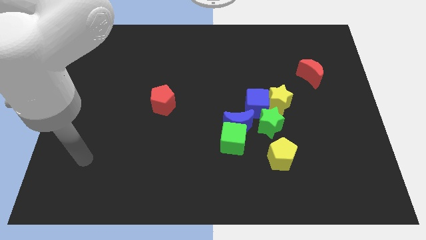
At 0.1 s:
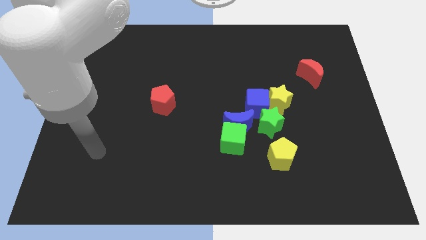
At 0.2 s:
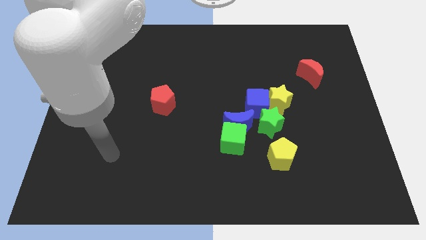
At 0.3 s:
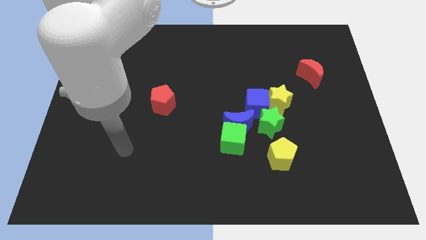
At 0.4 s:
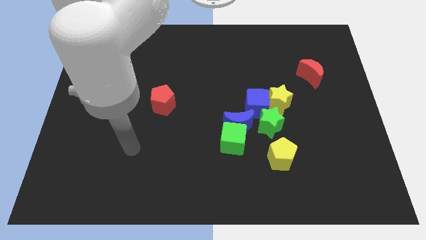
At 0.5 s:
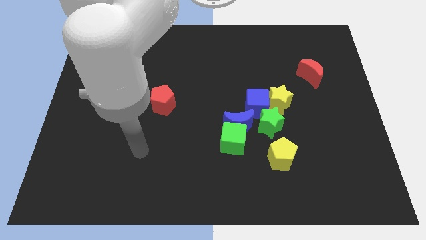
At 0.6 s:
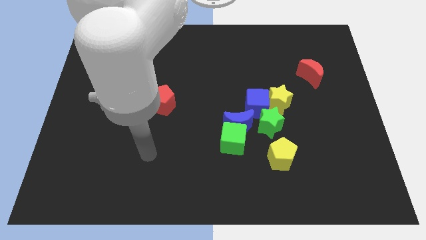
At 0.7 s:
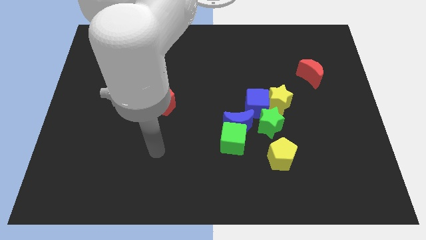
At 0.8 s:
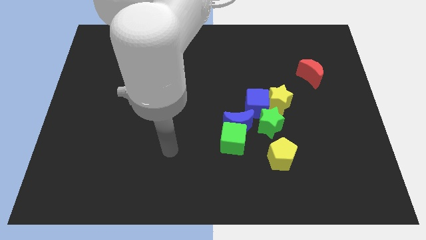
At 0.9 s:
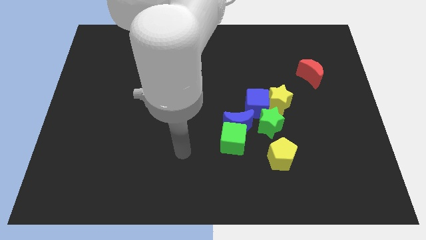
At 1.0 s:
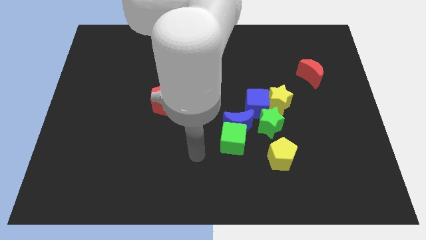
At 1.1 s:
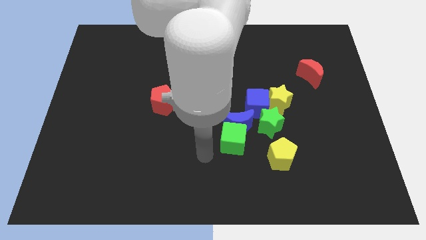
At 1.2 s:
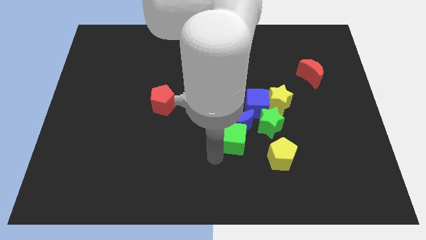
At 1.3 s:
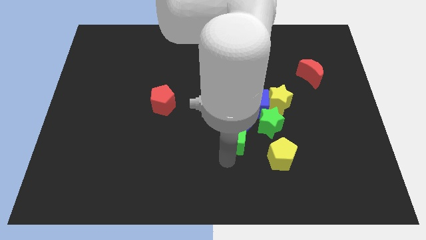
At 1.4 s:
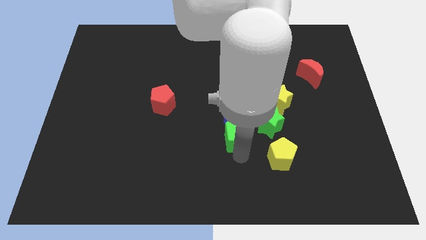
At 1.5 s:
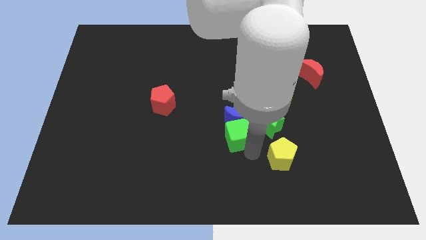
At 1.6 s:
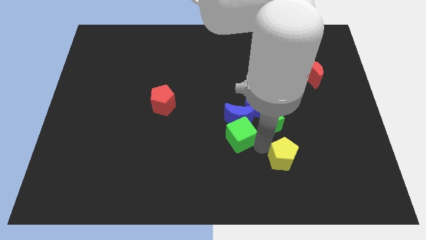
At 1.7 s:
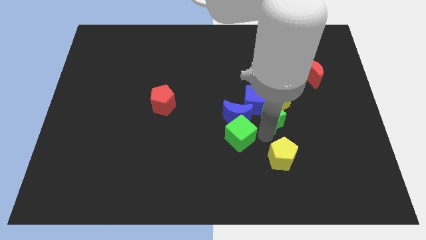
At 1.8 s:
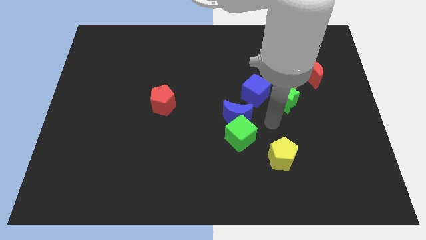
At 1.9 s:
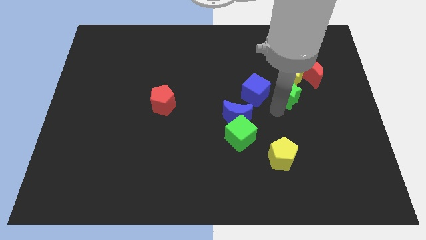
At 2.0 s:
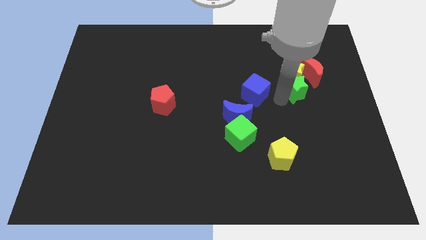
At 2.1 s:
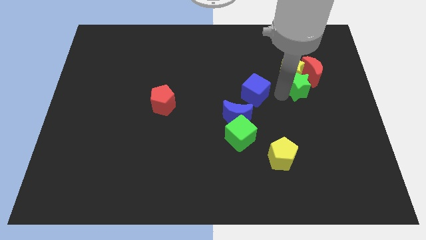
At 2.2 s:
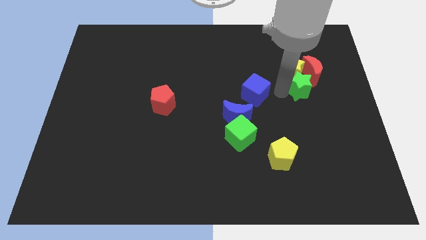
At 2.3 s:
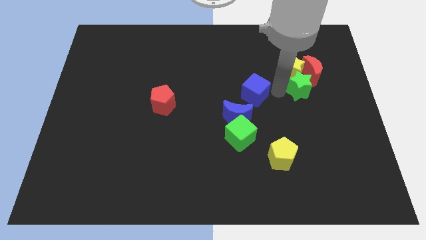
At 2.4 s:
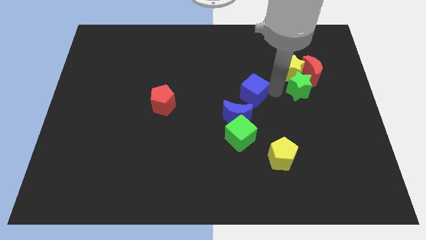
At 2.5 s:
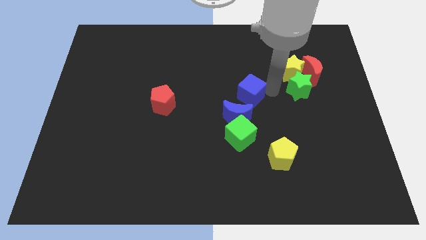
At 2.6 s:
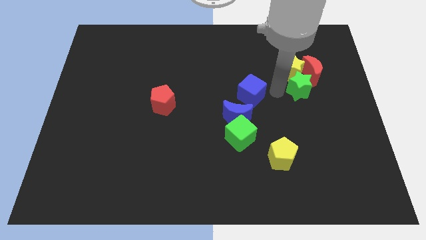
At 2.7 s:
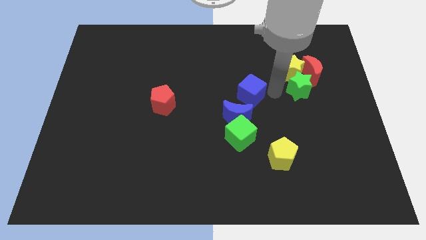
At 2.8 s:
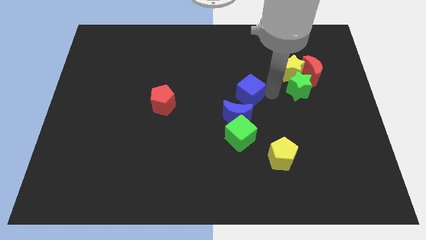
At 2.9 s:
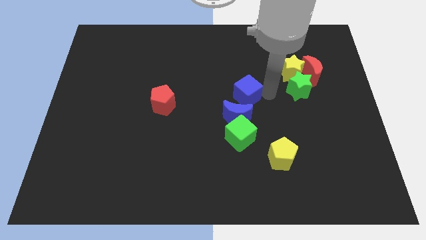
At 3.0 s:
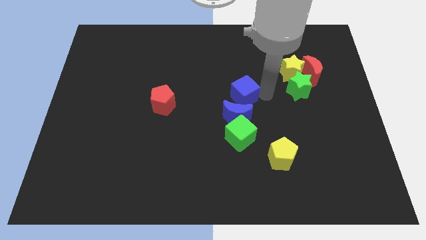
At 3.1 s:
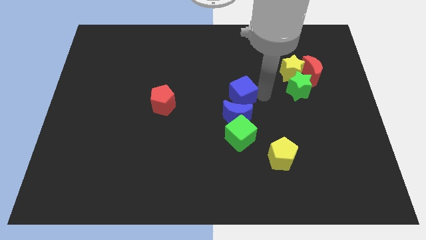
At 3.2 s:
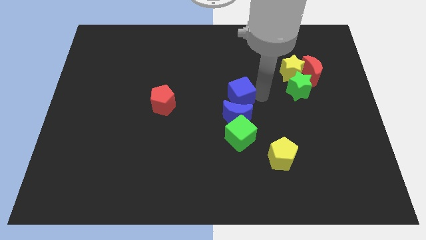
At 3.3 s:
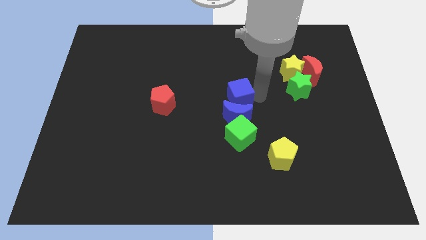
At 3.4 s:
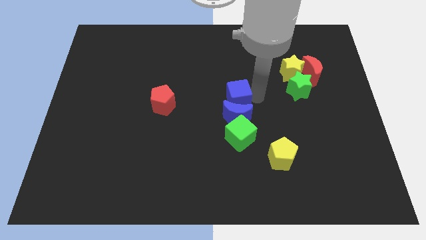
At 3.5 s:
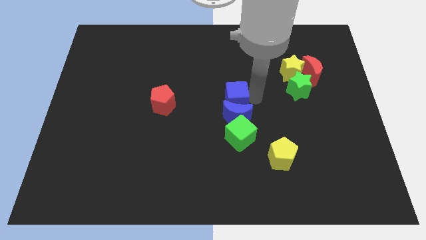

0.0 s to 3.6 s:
move the blue cube away from the clump

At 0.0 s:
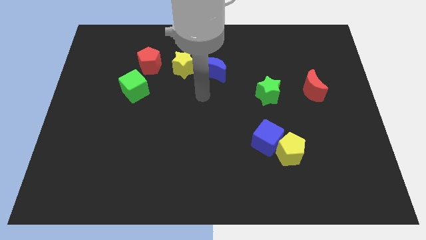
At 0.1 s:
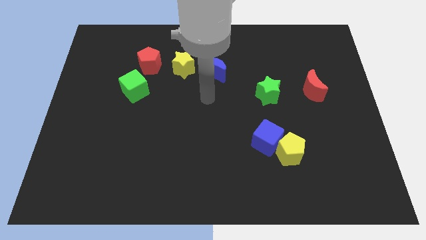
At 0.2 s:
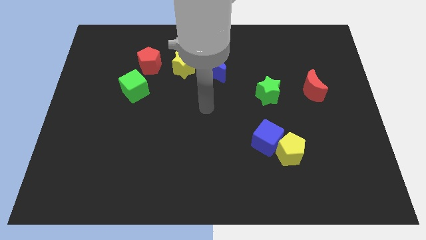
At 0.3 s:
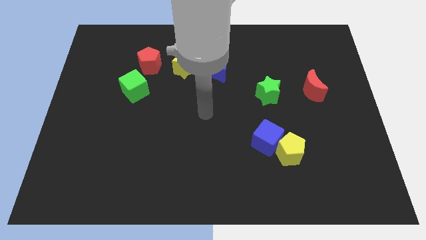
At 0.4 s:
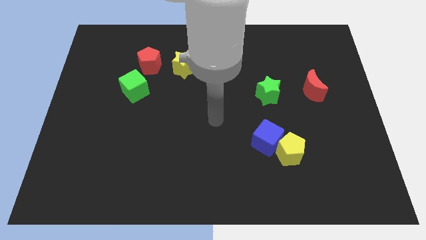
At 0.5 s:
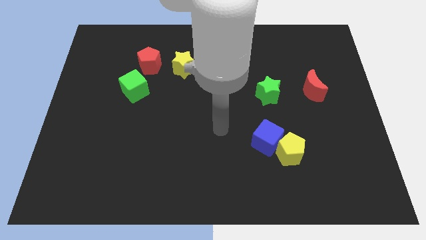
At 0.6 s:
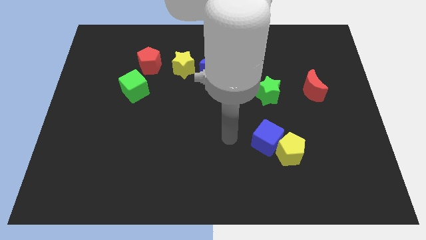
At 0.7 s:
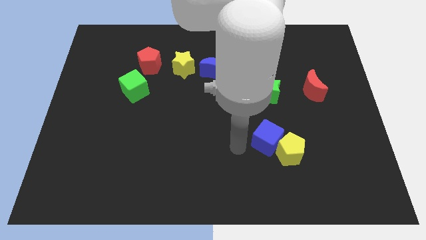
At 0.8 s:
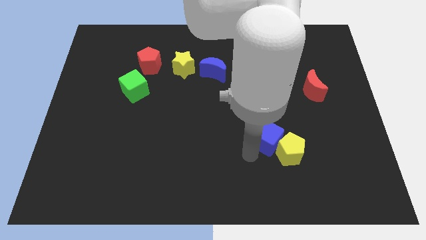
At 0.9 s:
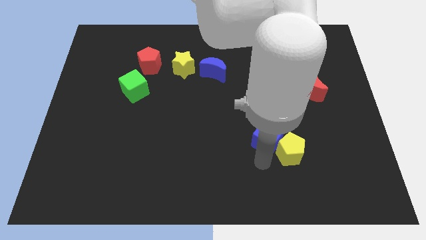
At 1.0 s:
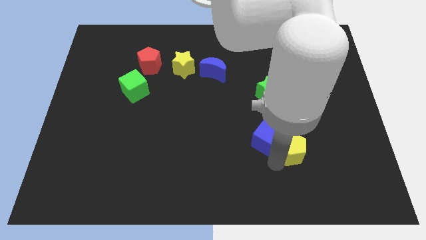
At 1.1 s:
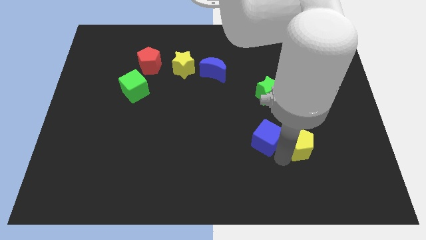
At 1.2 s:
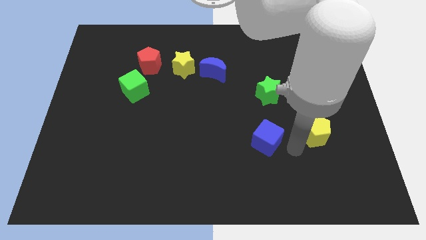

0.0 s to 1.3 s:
move the blue cube away from the yellow pentagon

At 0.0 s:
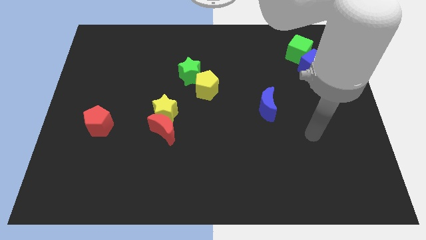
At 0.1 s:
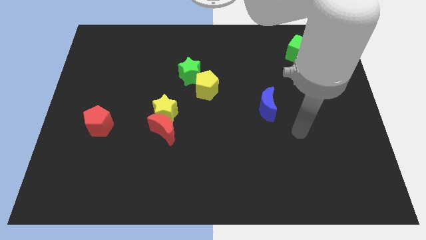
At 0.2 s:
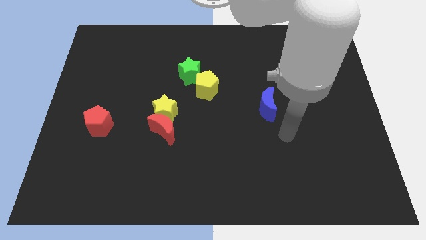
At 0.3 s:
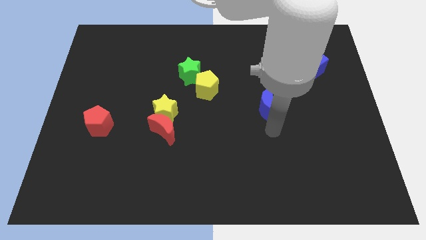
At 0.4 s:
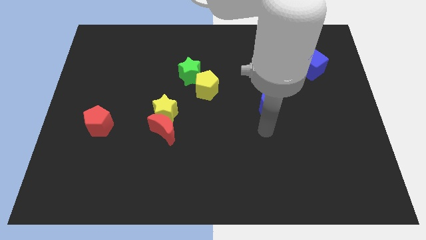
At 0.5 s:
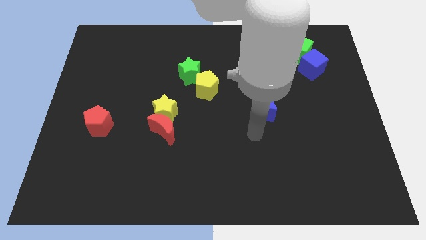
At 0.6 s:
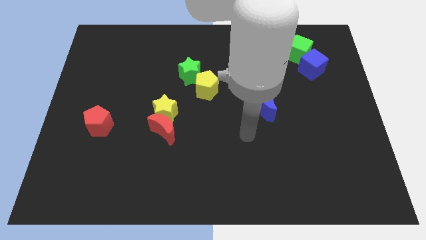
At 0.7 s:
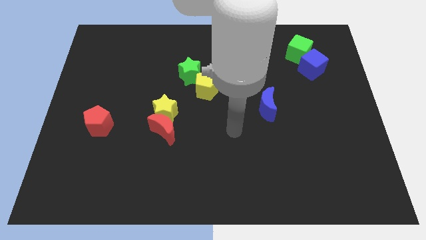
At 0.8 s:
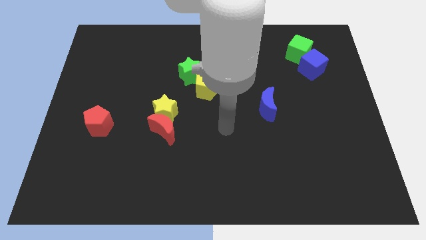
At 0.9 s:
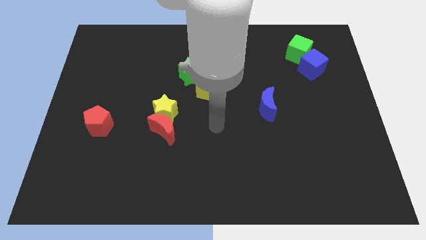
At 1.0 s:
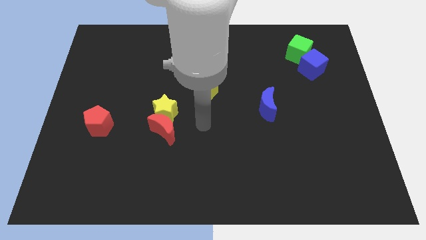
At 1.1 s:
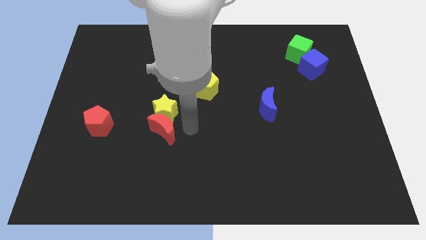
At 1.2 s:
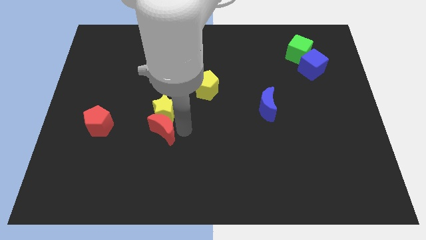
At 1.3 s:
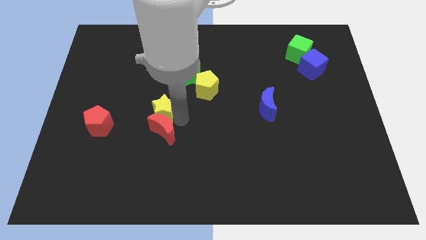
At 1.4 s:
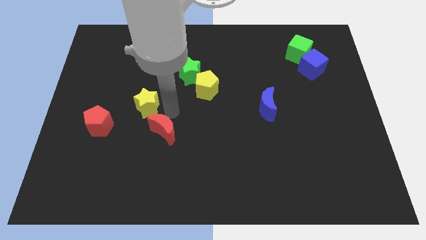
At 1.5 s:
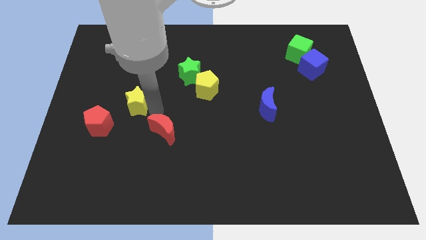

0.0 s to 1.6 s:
separate the red moon from the yellow star

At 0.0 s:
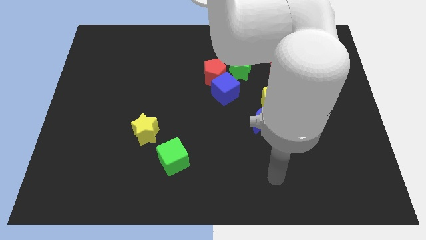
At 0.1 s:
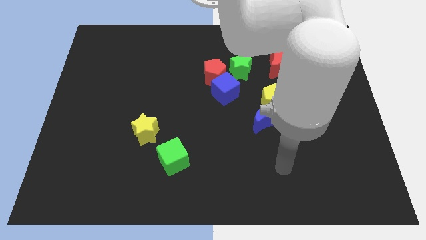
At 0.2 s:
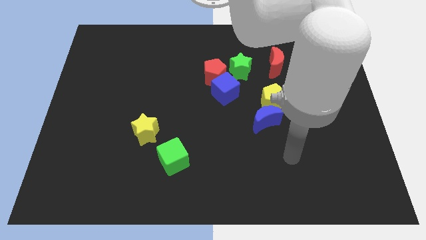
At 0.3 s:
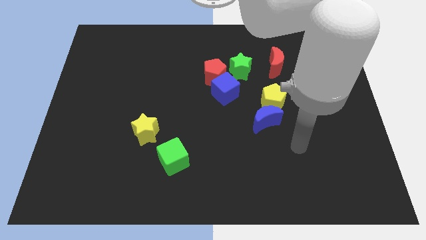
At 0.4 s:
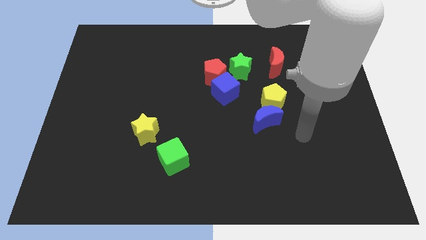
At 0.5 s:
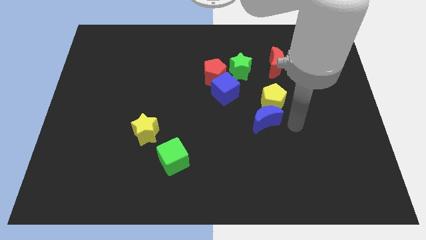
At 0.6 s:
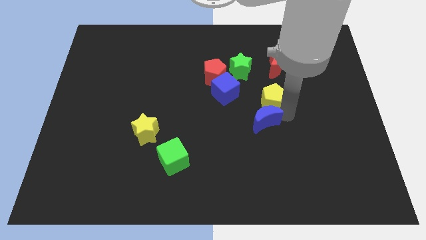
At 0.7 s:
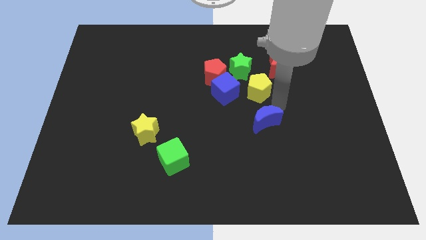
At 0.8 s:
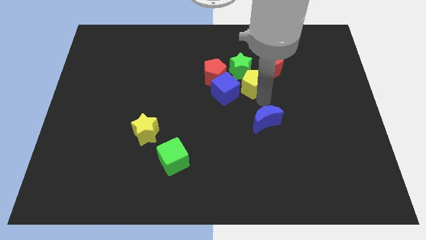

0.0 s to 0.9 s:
pull the blue moon apart from the yellow pentagon

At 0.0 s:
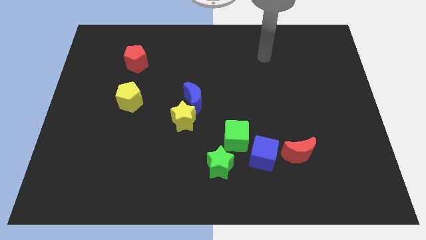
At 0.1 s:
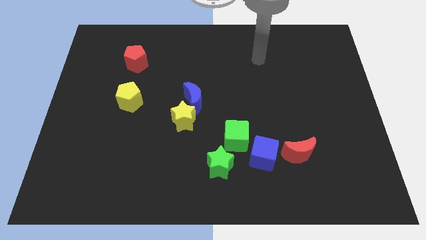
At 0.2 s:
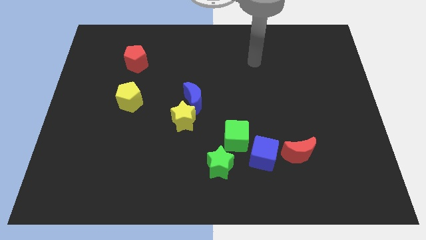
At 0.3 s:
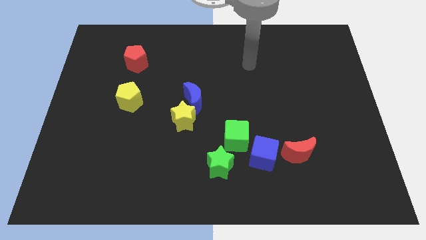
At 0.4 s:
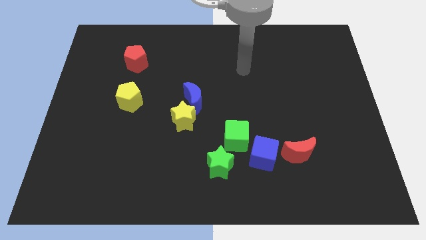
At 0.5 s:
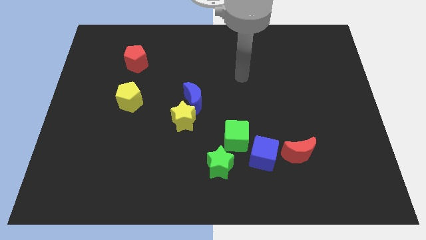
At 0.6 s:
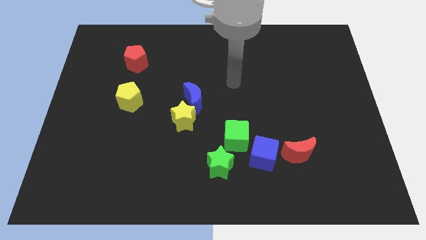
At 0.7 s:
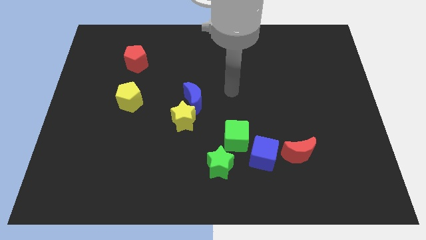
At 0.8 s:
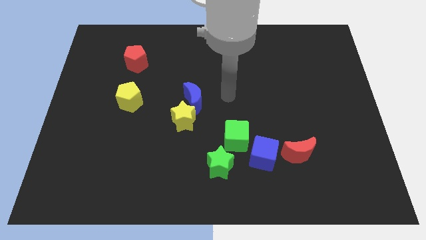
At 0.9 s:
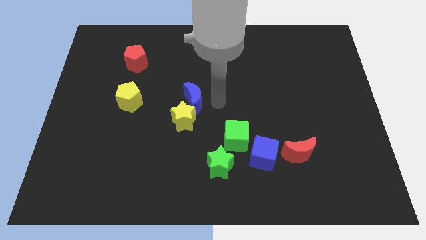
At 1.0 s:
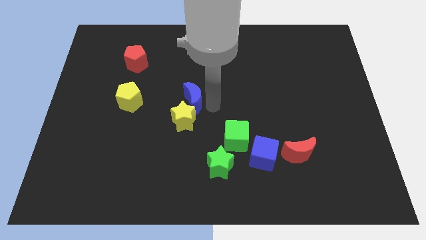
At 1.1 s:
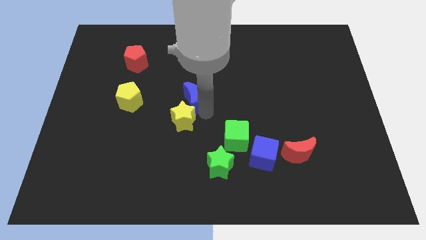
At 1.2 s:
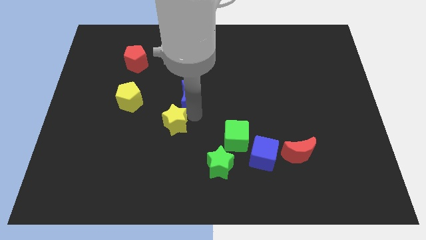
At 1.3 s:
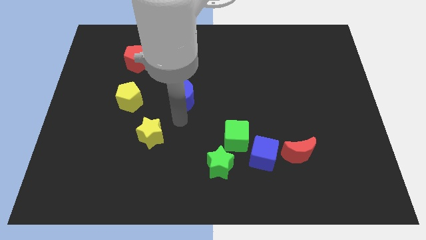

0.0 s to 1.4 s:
move the blue moon away from the yellow star

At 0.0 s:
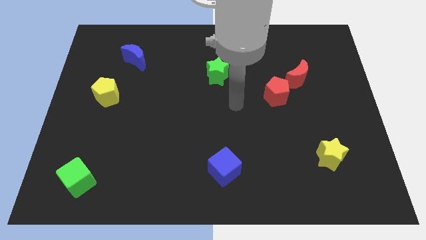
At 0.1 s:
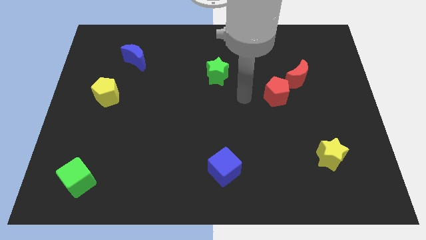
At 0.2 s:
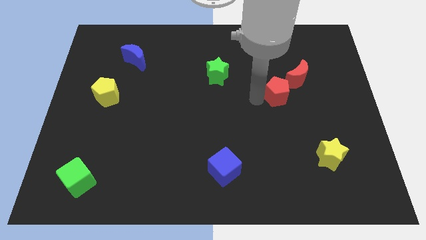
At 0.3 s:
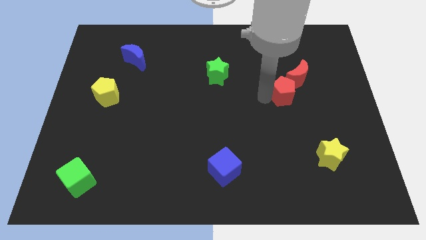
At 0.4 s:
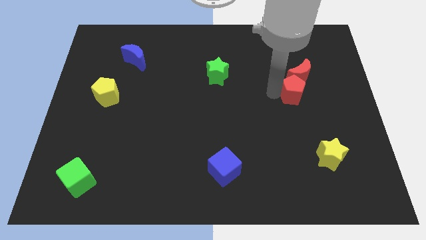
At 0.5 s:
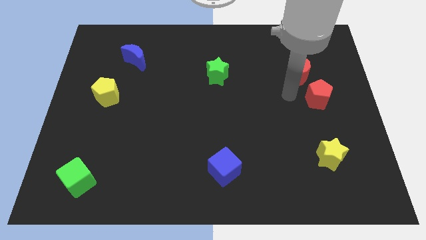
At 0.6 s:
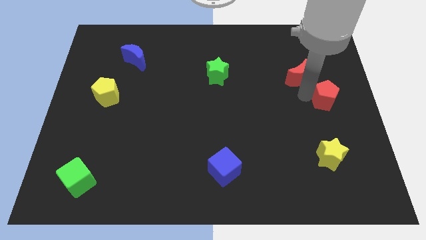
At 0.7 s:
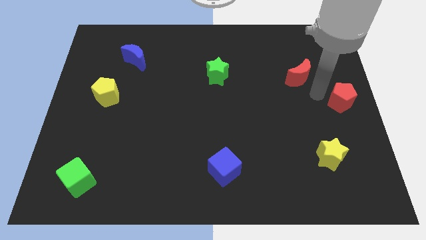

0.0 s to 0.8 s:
move the red moon away from the red pentagon
